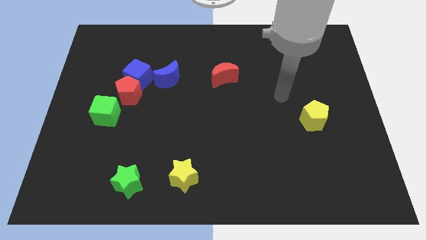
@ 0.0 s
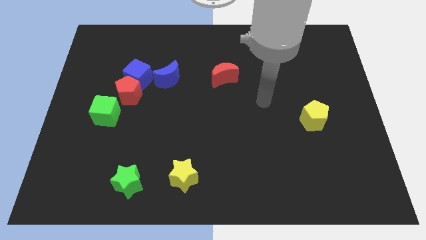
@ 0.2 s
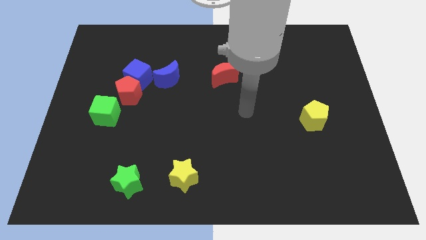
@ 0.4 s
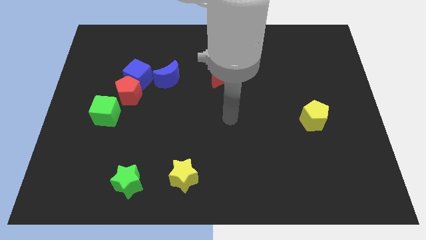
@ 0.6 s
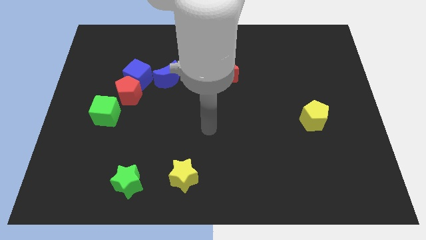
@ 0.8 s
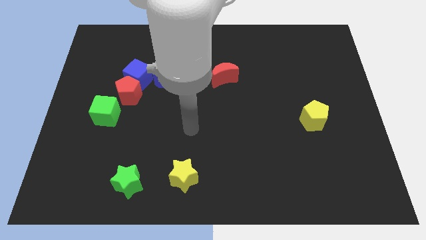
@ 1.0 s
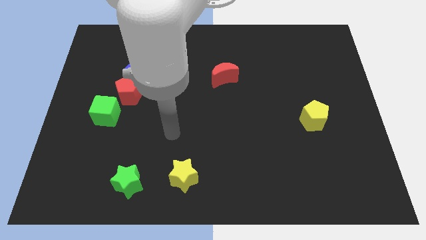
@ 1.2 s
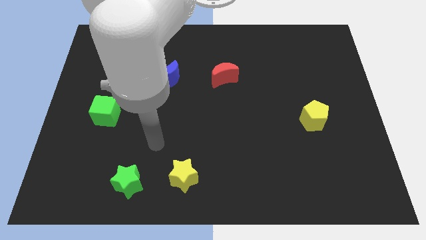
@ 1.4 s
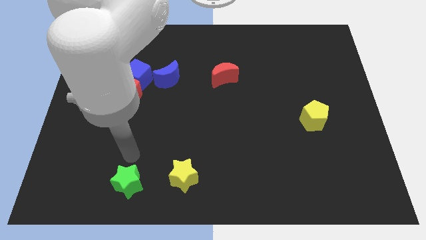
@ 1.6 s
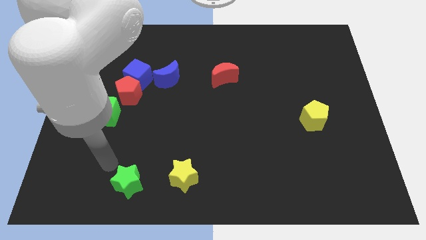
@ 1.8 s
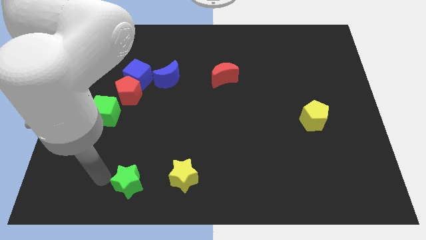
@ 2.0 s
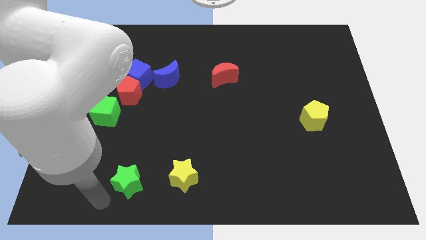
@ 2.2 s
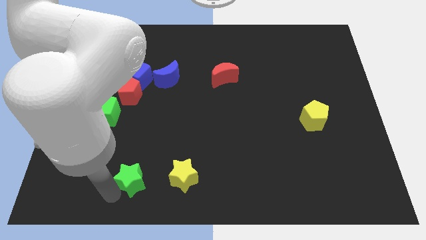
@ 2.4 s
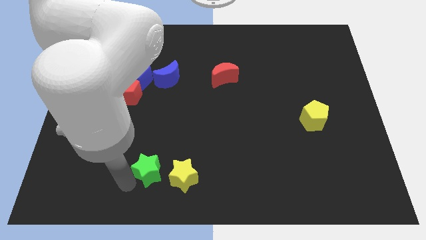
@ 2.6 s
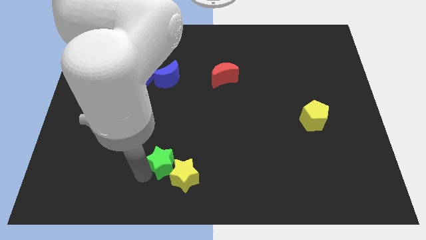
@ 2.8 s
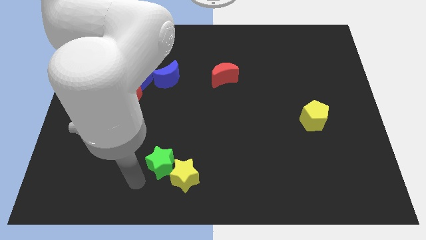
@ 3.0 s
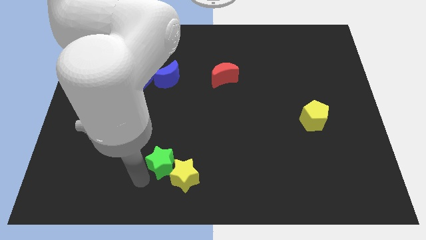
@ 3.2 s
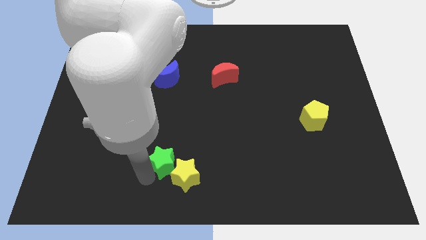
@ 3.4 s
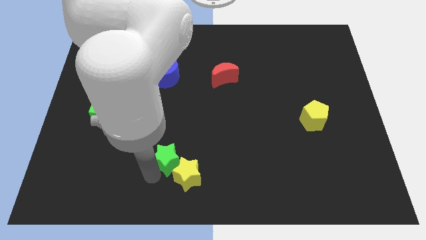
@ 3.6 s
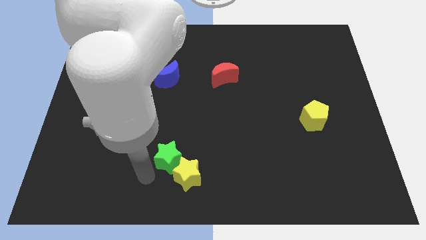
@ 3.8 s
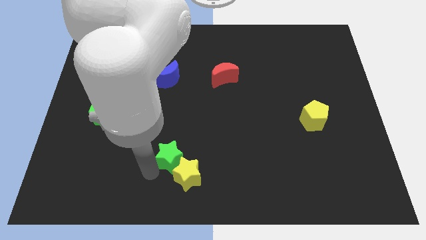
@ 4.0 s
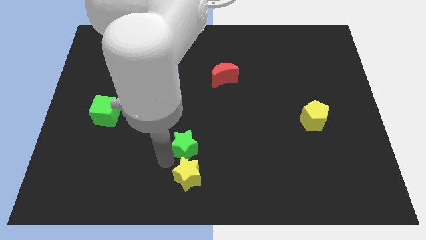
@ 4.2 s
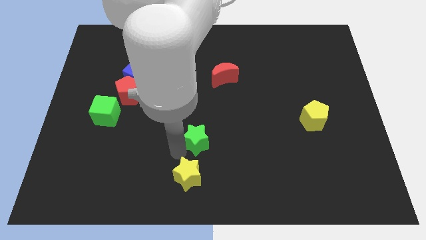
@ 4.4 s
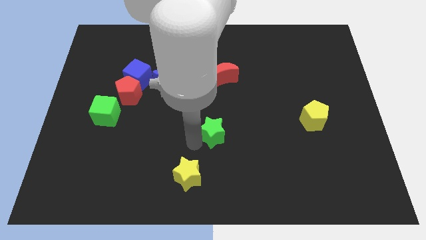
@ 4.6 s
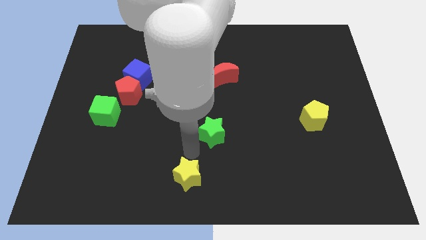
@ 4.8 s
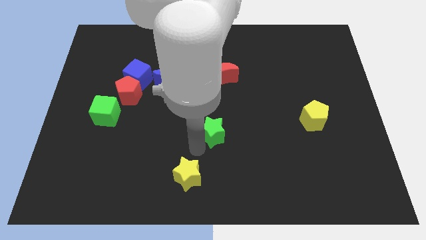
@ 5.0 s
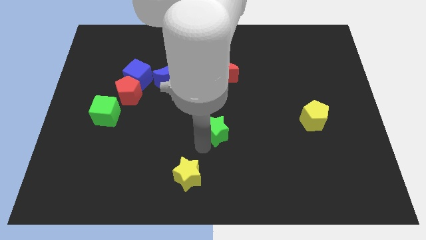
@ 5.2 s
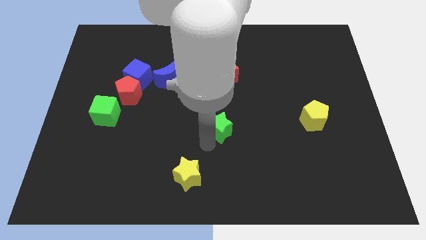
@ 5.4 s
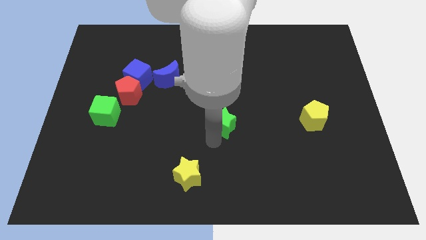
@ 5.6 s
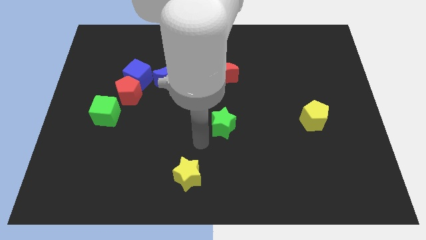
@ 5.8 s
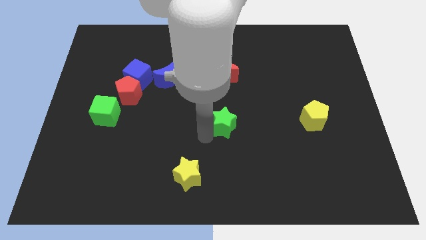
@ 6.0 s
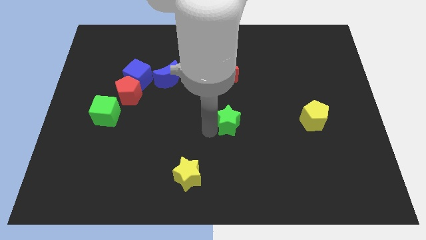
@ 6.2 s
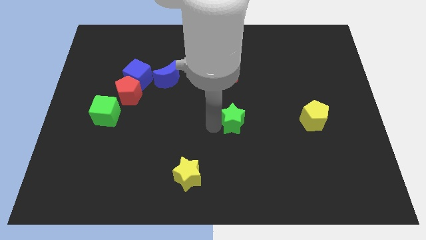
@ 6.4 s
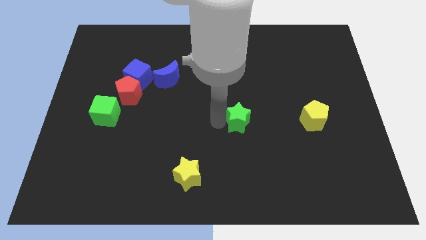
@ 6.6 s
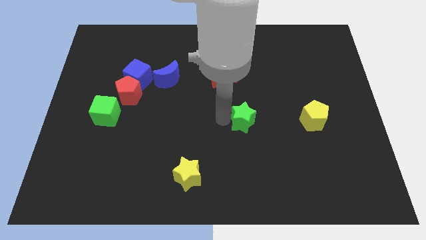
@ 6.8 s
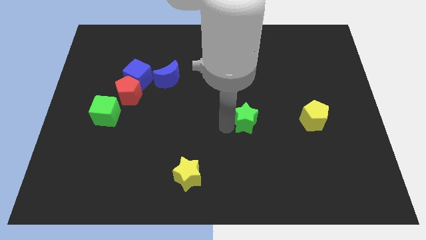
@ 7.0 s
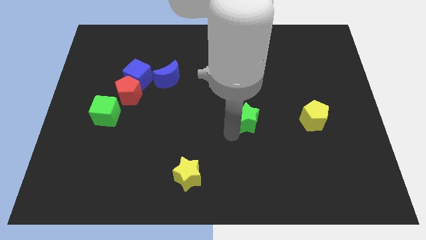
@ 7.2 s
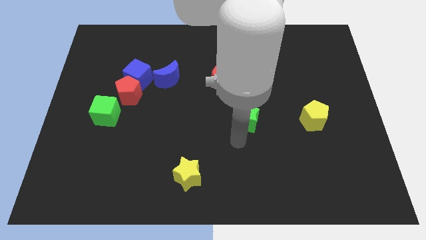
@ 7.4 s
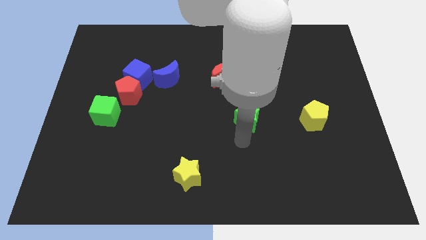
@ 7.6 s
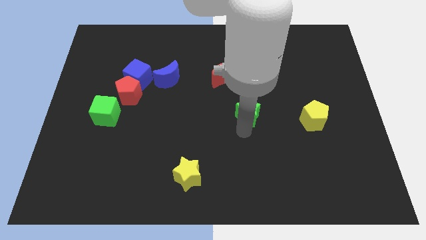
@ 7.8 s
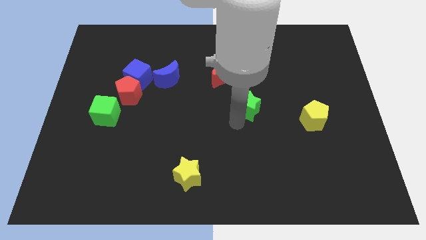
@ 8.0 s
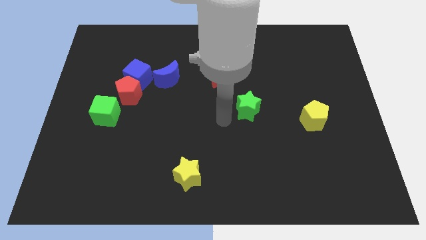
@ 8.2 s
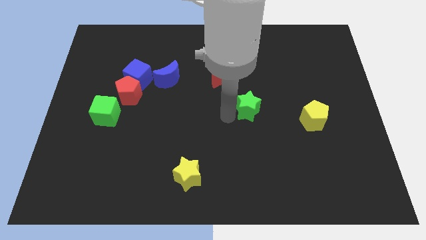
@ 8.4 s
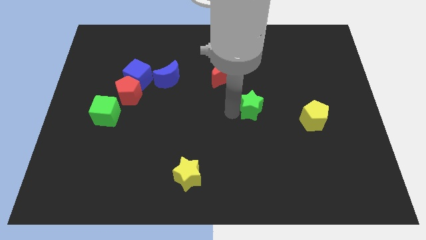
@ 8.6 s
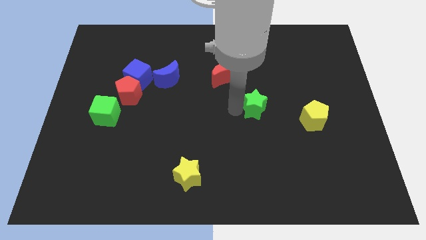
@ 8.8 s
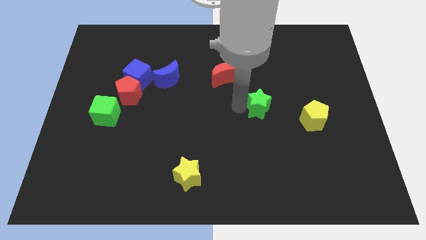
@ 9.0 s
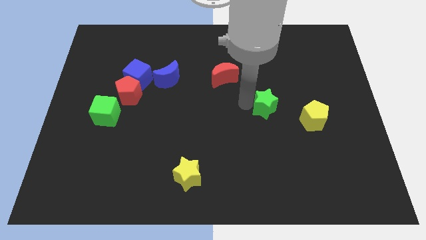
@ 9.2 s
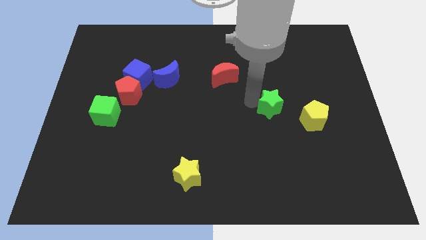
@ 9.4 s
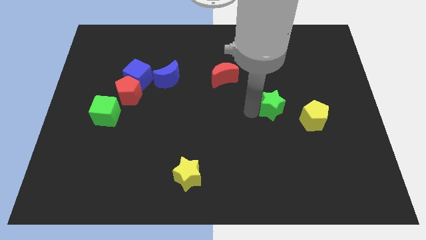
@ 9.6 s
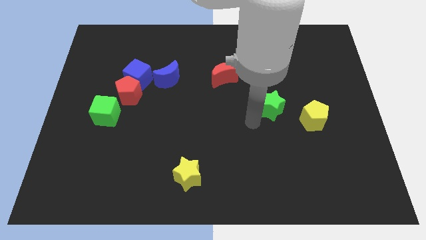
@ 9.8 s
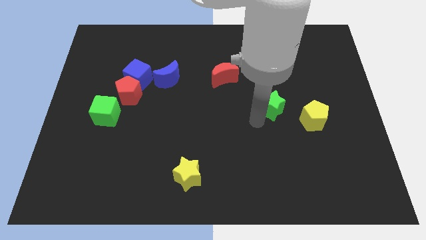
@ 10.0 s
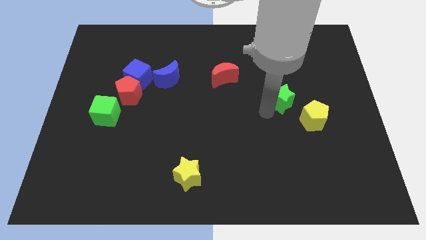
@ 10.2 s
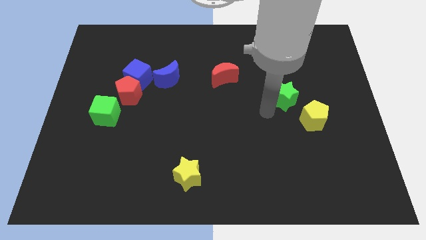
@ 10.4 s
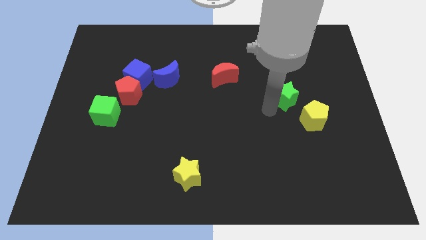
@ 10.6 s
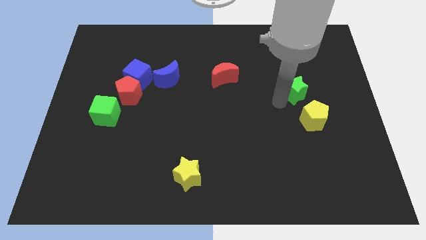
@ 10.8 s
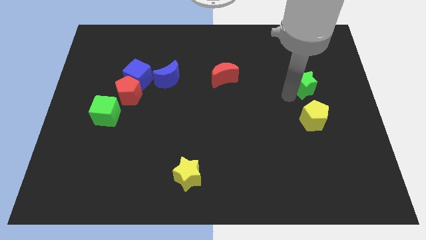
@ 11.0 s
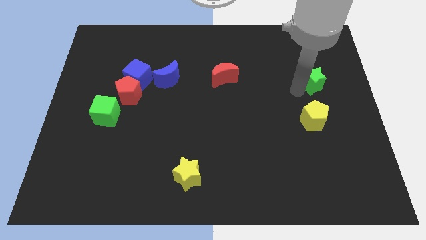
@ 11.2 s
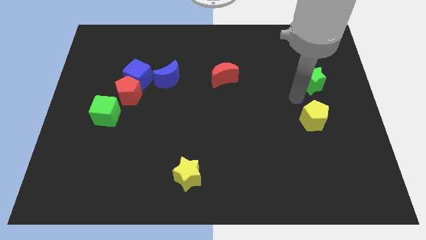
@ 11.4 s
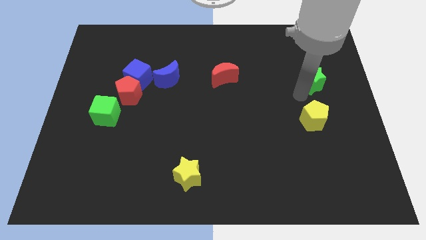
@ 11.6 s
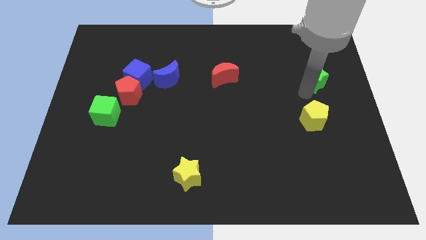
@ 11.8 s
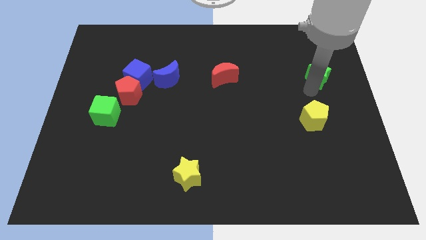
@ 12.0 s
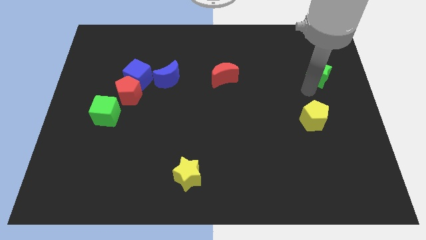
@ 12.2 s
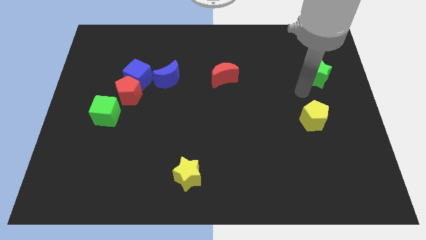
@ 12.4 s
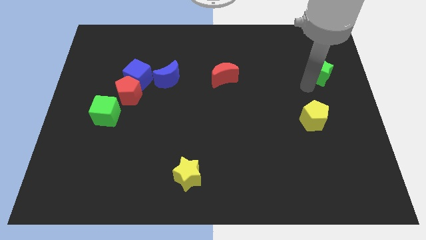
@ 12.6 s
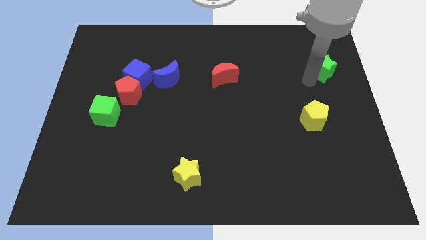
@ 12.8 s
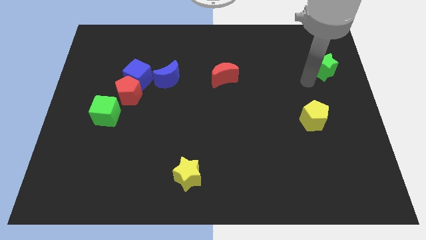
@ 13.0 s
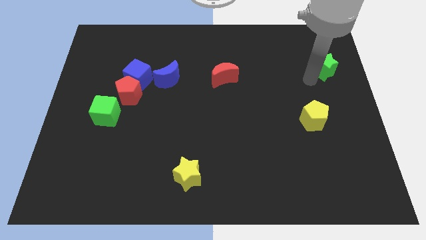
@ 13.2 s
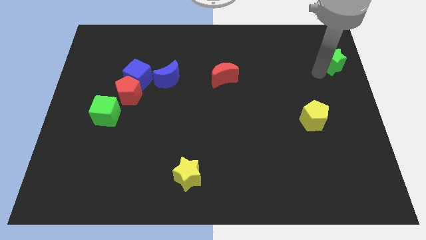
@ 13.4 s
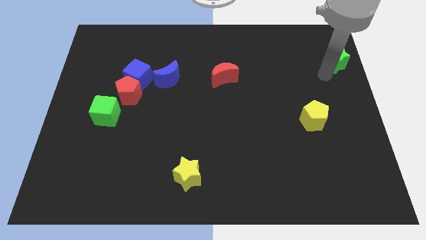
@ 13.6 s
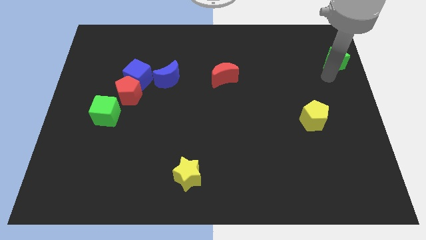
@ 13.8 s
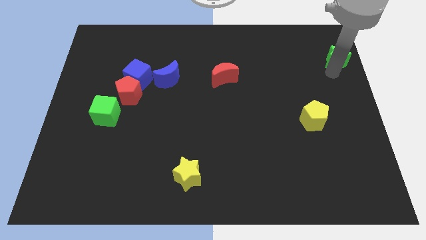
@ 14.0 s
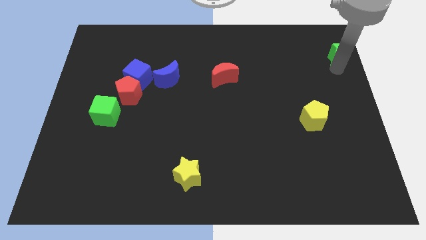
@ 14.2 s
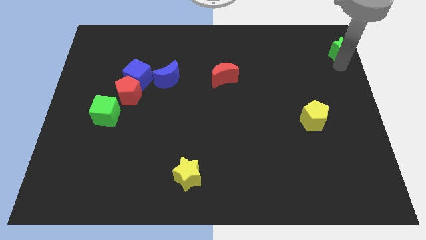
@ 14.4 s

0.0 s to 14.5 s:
put the green star to the top right of the board

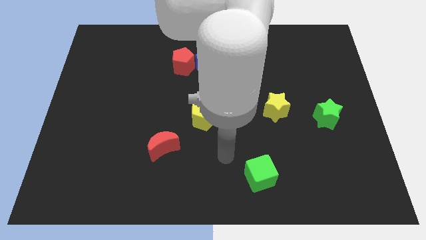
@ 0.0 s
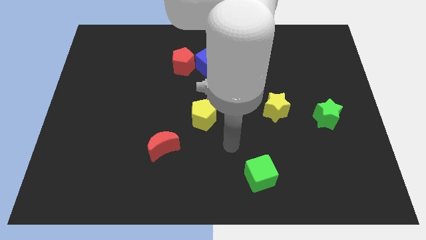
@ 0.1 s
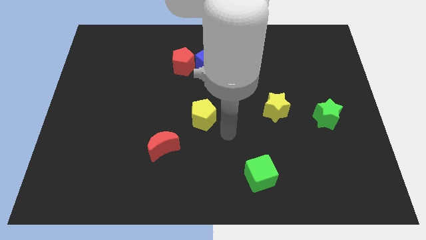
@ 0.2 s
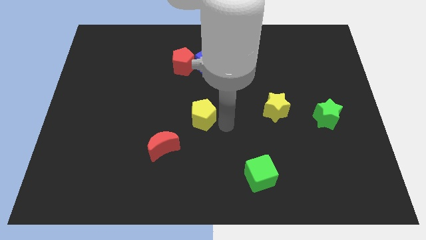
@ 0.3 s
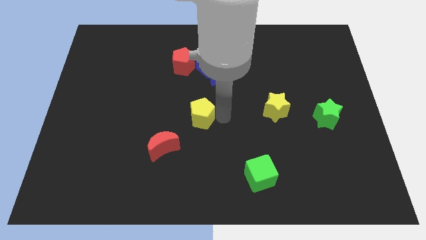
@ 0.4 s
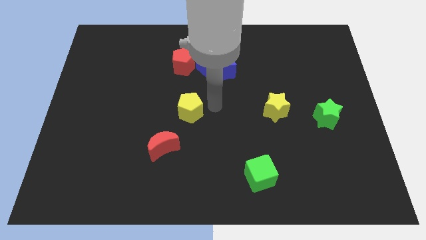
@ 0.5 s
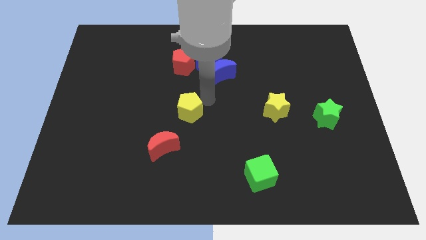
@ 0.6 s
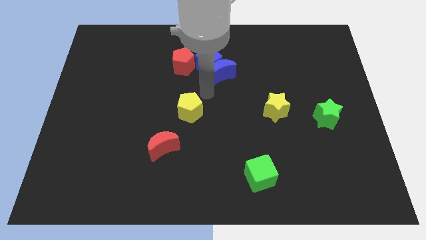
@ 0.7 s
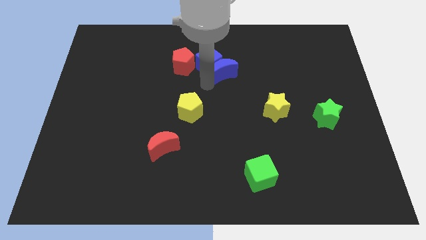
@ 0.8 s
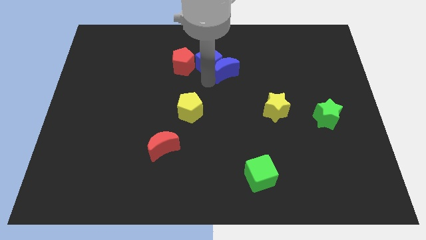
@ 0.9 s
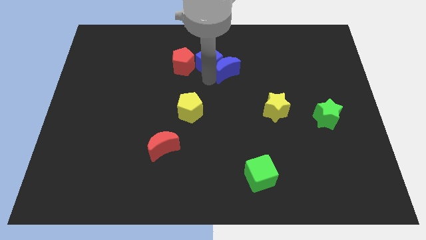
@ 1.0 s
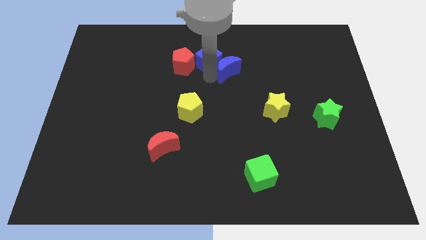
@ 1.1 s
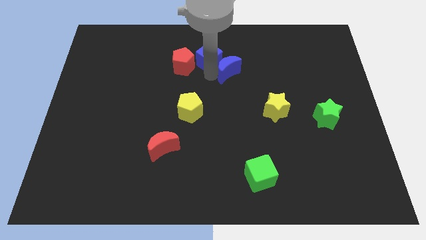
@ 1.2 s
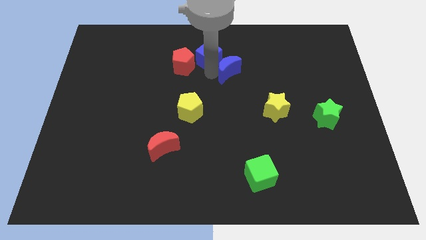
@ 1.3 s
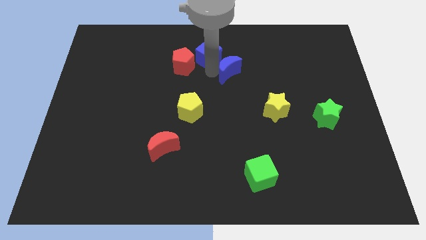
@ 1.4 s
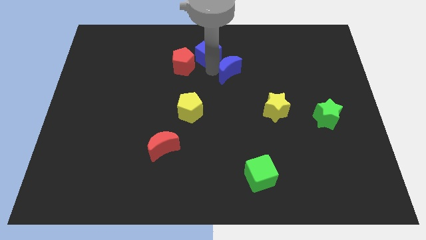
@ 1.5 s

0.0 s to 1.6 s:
put the blue cube to the top
